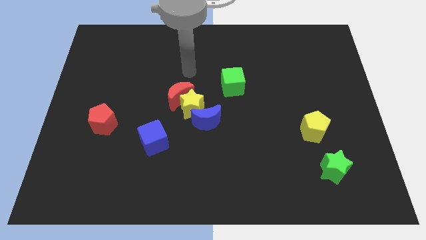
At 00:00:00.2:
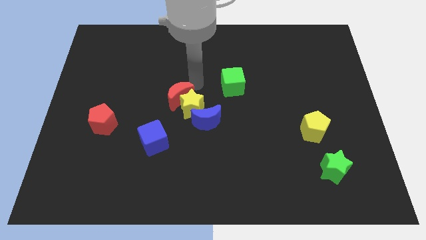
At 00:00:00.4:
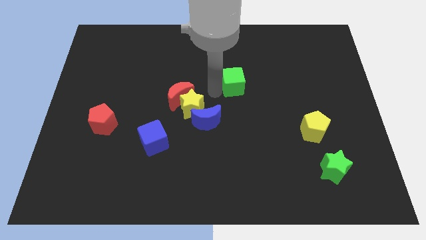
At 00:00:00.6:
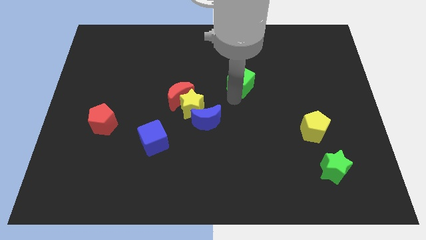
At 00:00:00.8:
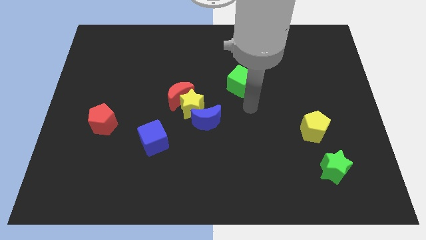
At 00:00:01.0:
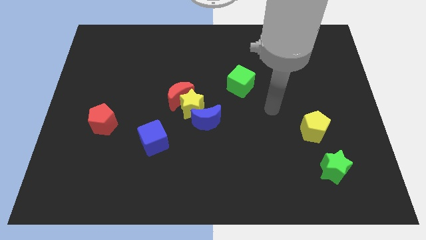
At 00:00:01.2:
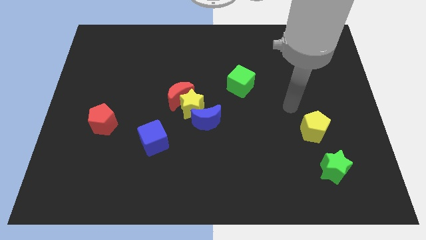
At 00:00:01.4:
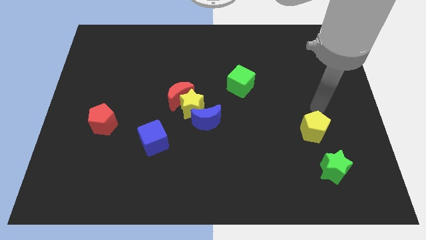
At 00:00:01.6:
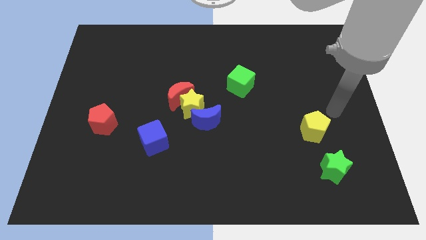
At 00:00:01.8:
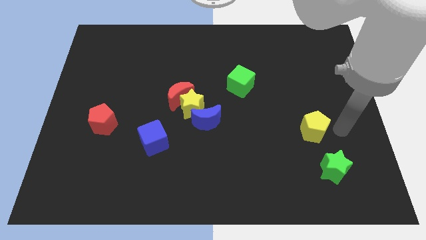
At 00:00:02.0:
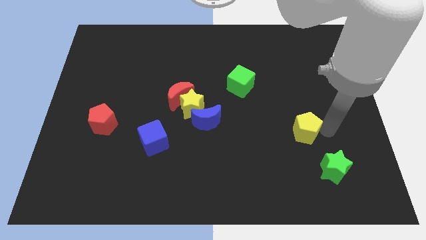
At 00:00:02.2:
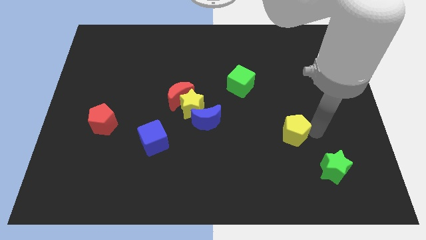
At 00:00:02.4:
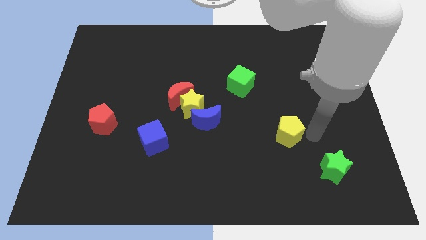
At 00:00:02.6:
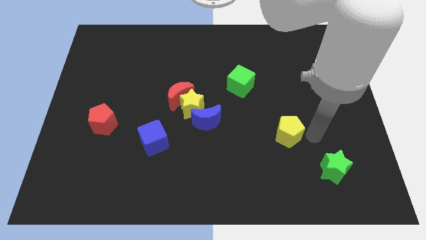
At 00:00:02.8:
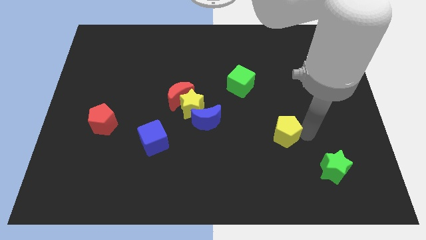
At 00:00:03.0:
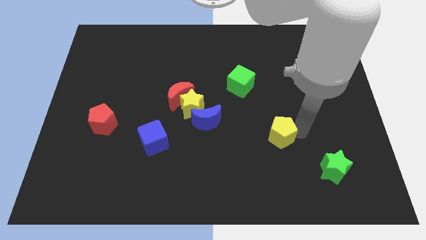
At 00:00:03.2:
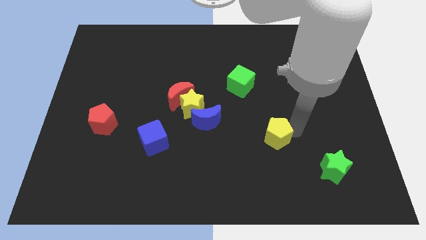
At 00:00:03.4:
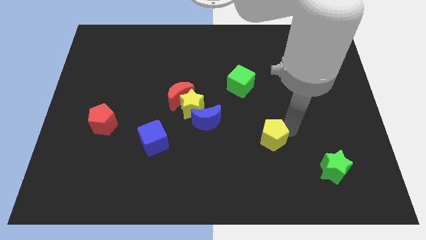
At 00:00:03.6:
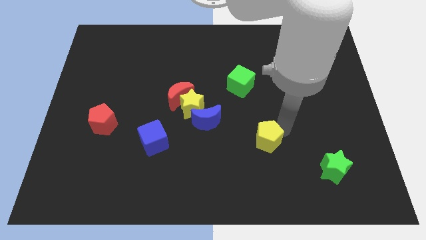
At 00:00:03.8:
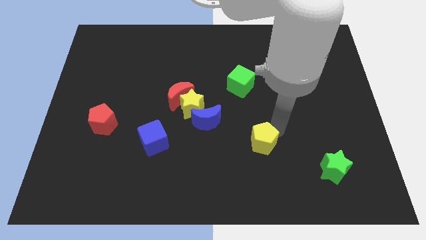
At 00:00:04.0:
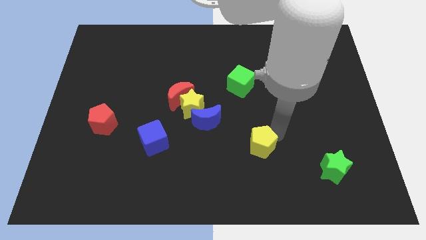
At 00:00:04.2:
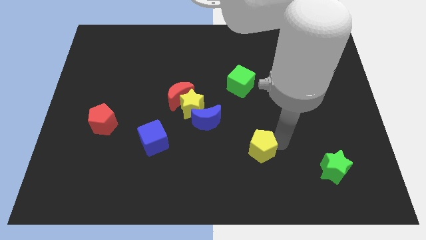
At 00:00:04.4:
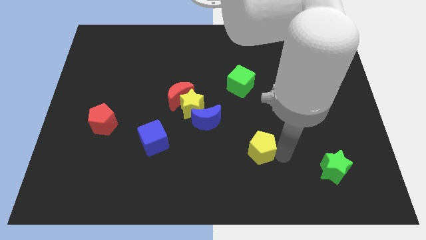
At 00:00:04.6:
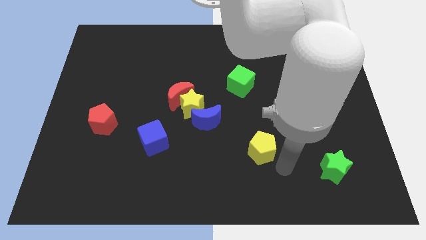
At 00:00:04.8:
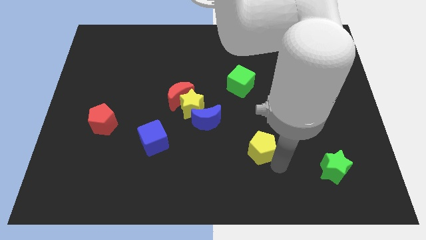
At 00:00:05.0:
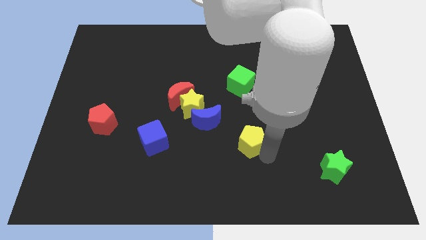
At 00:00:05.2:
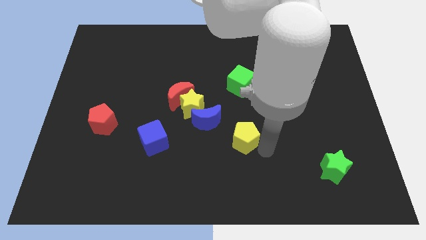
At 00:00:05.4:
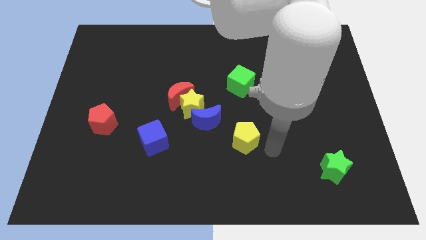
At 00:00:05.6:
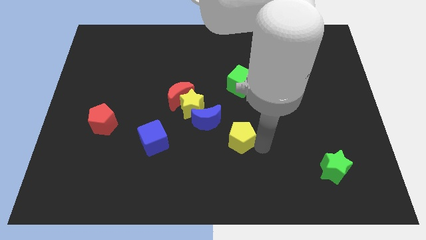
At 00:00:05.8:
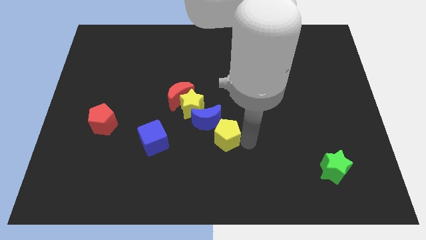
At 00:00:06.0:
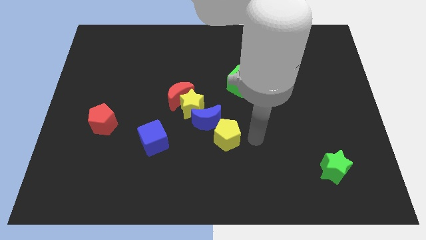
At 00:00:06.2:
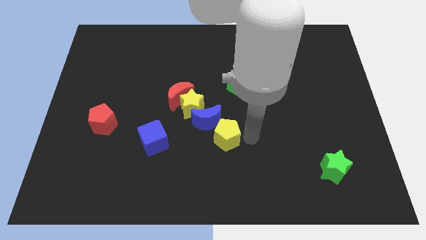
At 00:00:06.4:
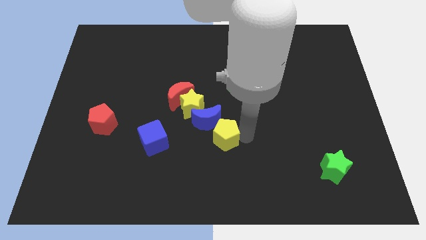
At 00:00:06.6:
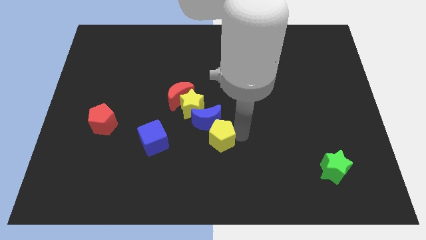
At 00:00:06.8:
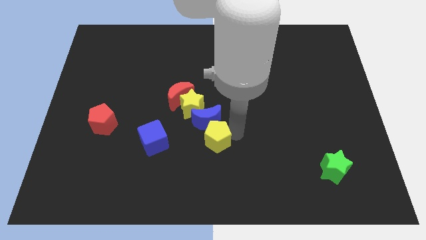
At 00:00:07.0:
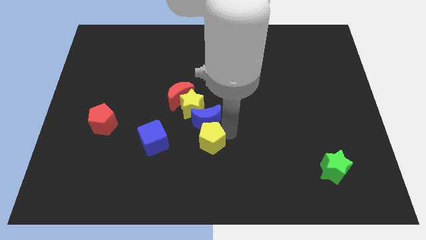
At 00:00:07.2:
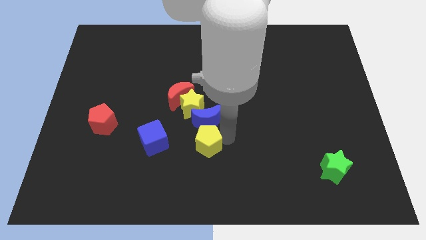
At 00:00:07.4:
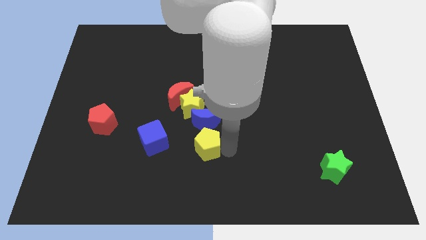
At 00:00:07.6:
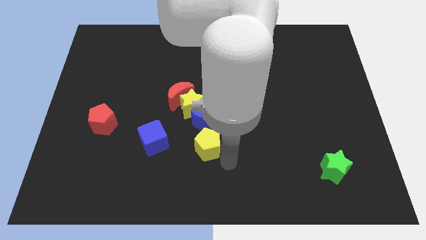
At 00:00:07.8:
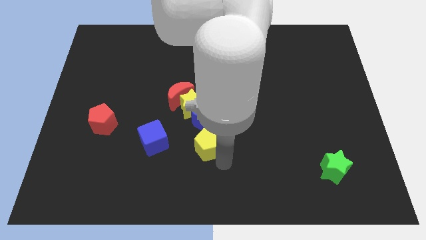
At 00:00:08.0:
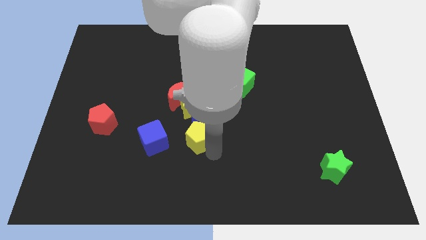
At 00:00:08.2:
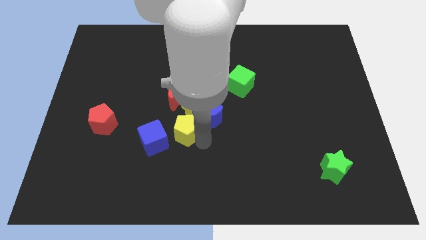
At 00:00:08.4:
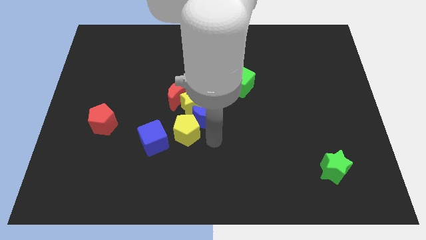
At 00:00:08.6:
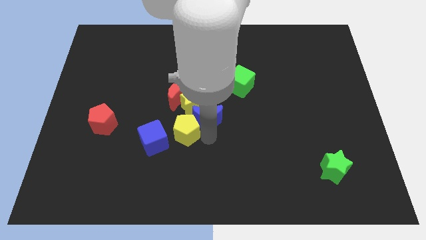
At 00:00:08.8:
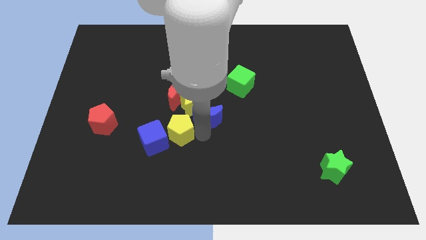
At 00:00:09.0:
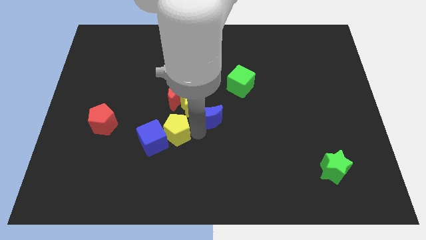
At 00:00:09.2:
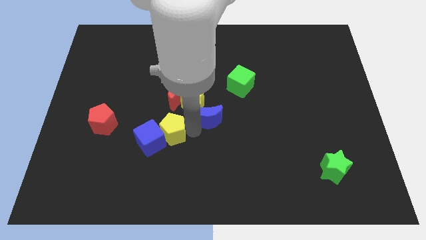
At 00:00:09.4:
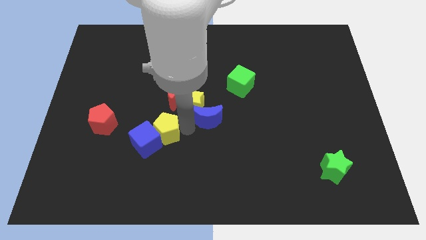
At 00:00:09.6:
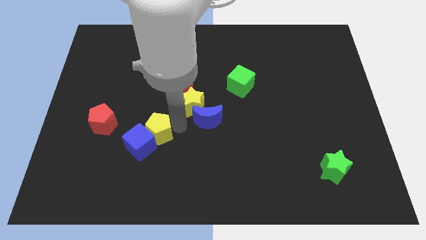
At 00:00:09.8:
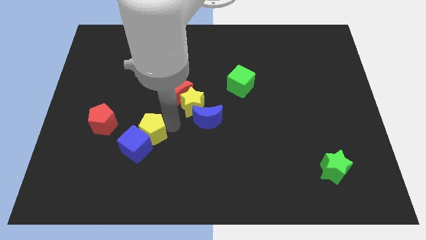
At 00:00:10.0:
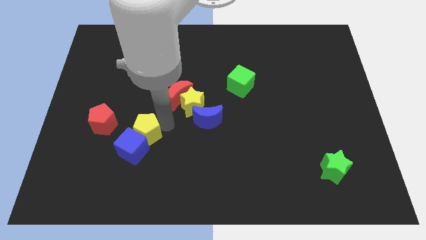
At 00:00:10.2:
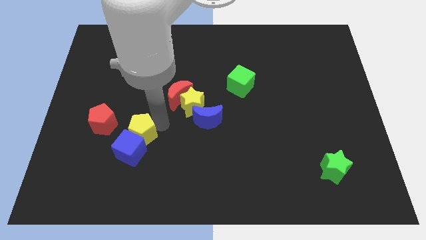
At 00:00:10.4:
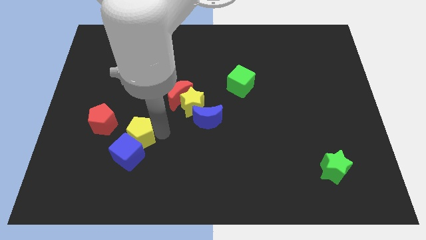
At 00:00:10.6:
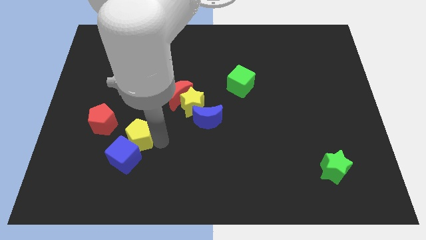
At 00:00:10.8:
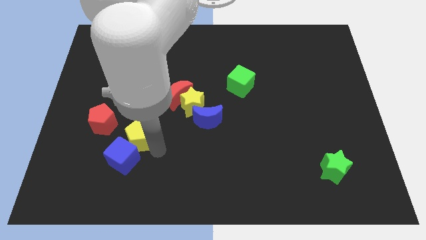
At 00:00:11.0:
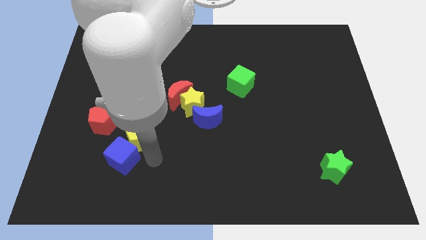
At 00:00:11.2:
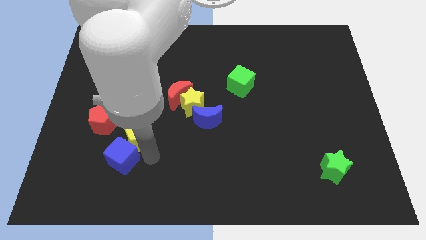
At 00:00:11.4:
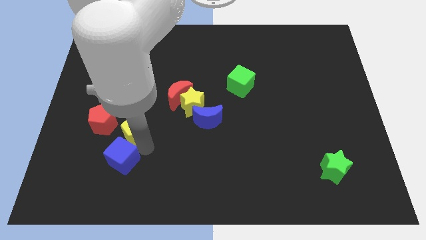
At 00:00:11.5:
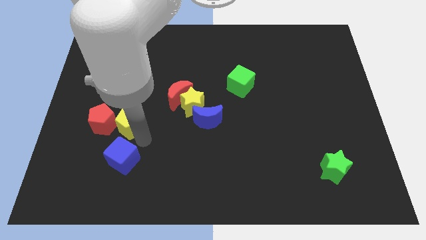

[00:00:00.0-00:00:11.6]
push the yellow pentagon towards the red pentagon

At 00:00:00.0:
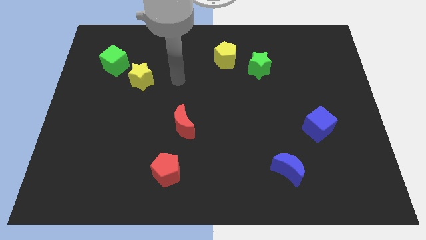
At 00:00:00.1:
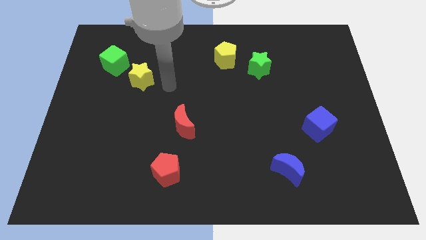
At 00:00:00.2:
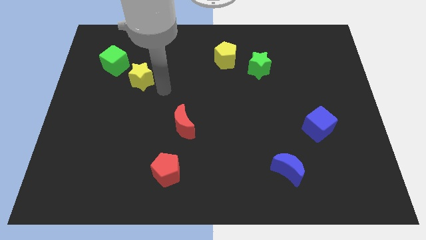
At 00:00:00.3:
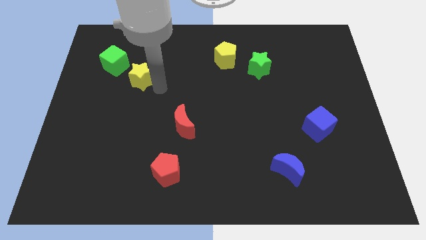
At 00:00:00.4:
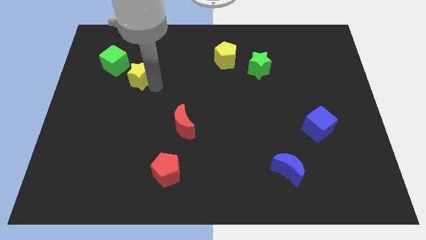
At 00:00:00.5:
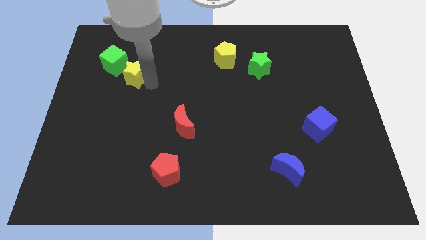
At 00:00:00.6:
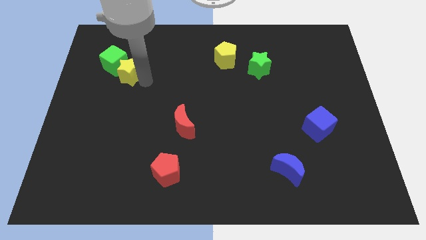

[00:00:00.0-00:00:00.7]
slide the yellow star next to the green cube

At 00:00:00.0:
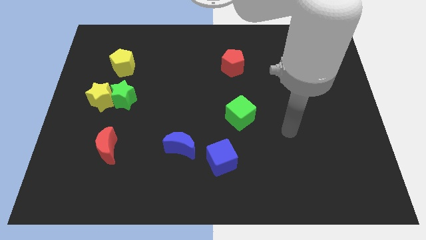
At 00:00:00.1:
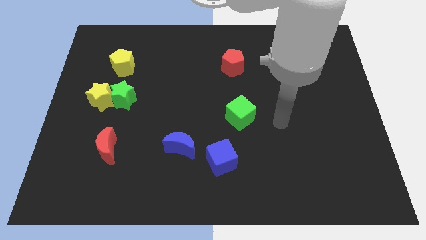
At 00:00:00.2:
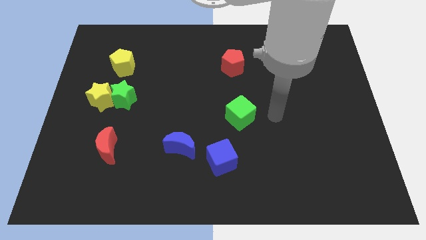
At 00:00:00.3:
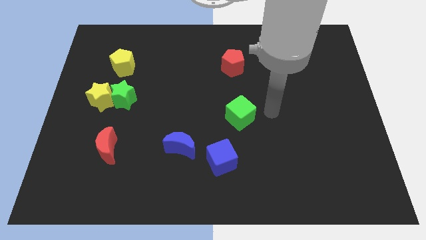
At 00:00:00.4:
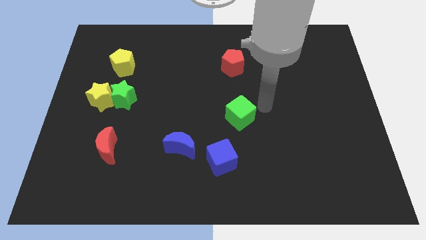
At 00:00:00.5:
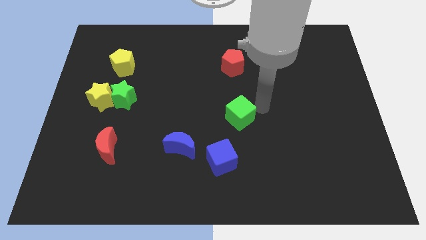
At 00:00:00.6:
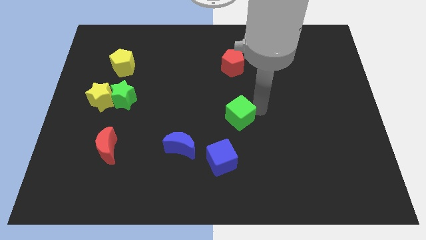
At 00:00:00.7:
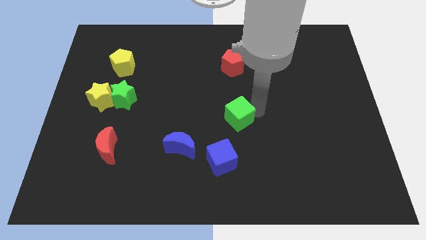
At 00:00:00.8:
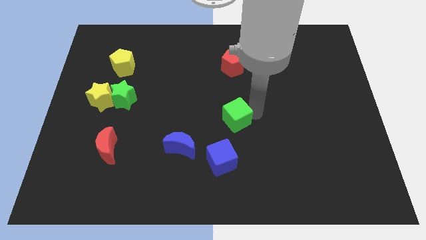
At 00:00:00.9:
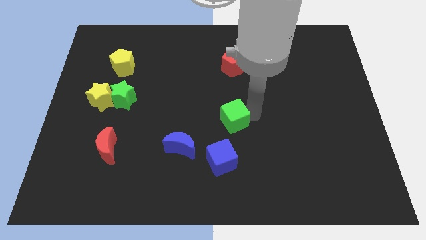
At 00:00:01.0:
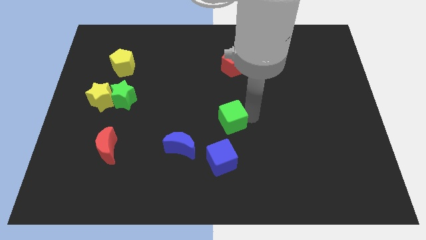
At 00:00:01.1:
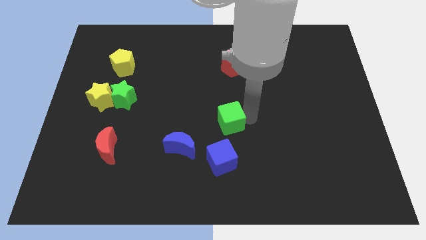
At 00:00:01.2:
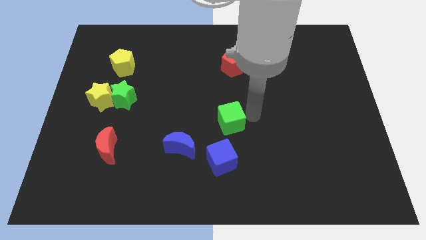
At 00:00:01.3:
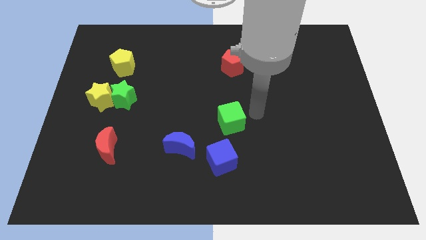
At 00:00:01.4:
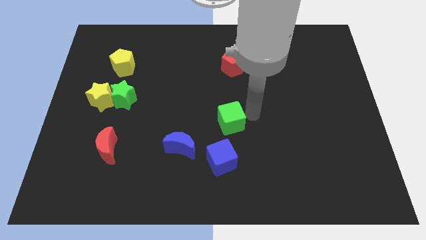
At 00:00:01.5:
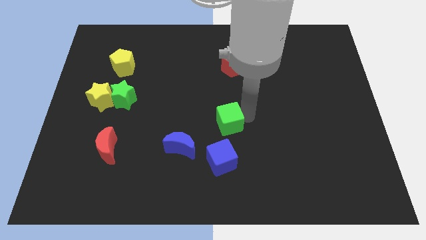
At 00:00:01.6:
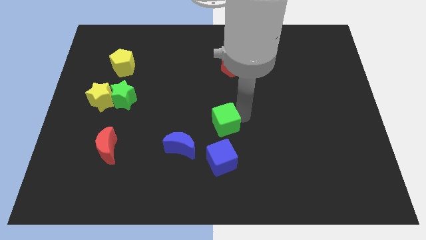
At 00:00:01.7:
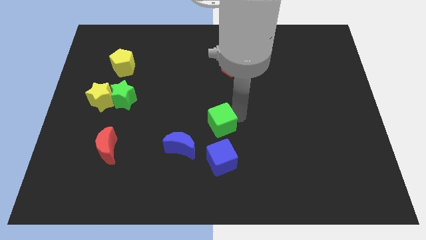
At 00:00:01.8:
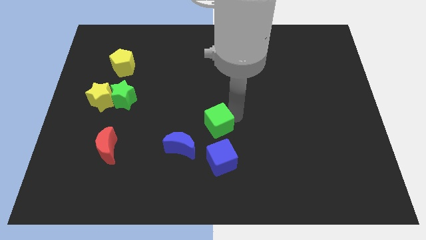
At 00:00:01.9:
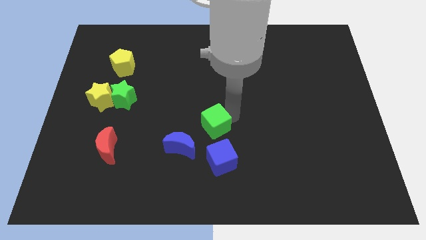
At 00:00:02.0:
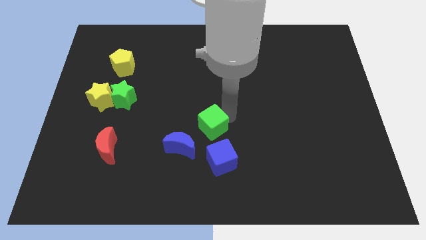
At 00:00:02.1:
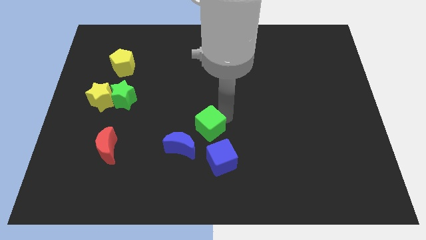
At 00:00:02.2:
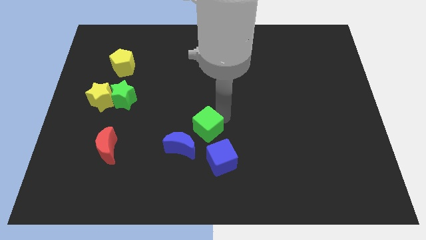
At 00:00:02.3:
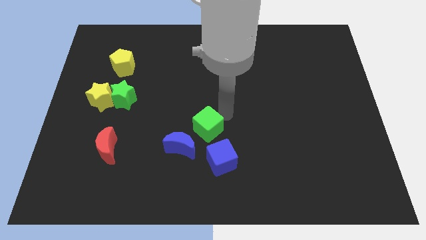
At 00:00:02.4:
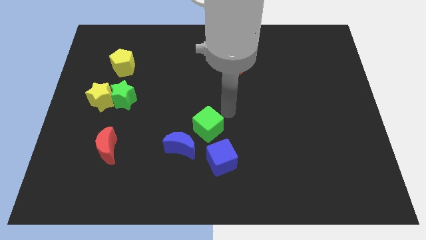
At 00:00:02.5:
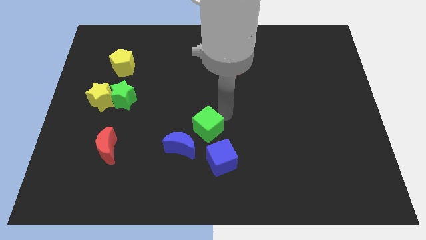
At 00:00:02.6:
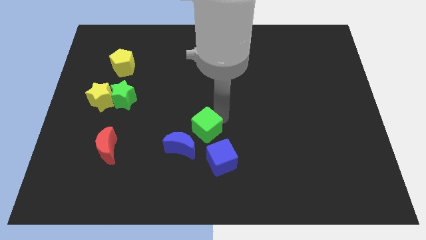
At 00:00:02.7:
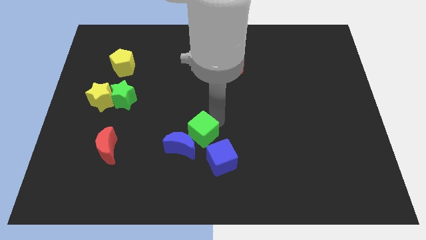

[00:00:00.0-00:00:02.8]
slide the green cube to the blue moon
